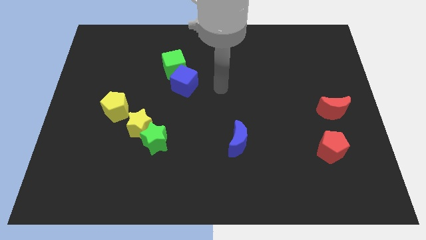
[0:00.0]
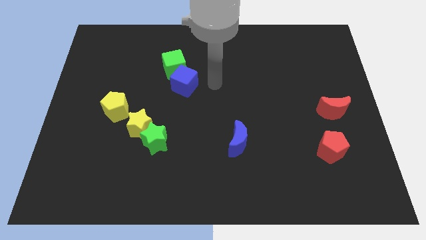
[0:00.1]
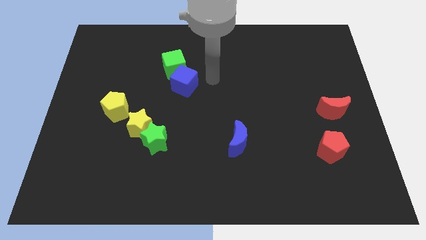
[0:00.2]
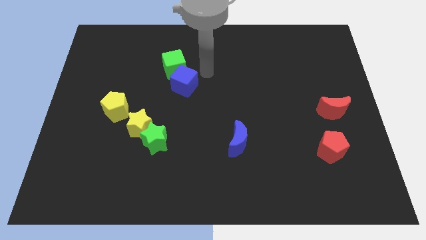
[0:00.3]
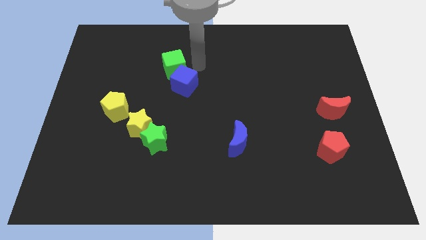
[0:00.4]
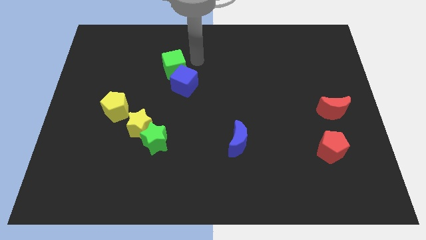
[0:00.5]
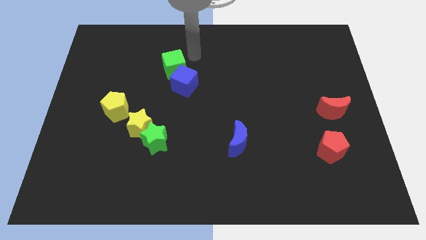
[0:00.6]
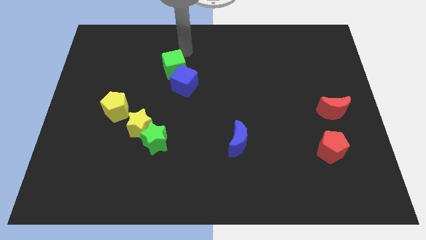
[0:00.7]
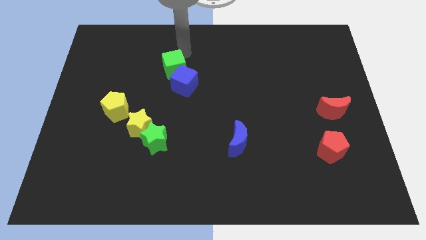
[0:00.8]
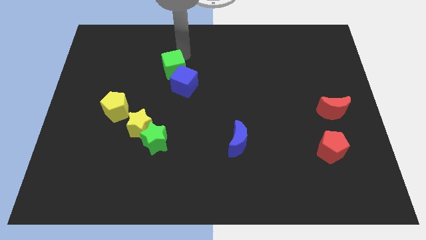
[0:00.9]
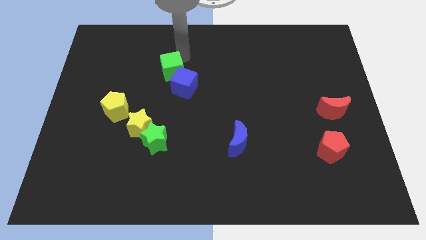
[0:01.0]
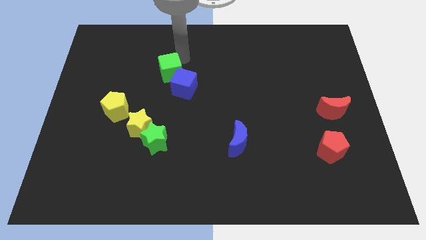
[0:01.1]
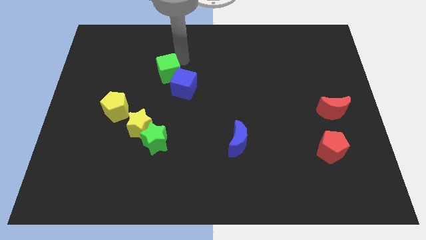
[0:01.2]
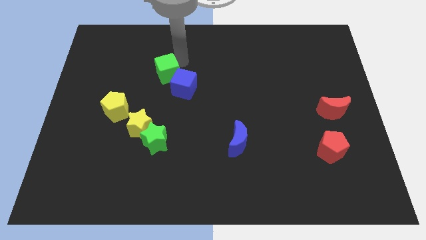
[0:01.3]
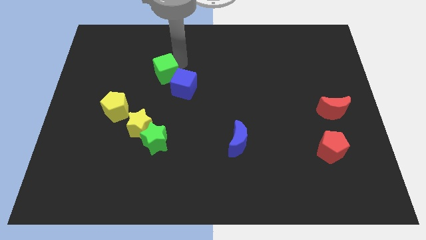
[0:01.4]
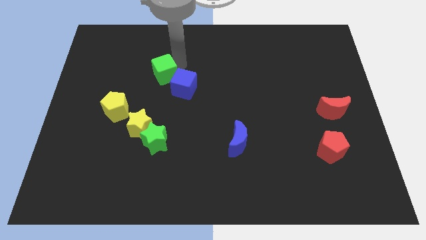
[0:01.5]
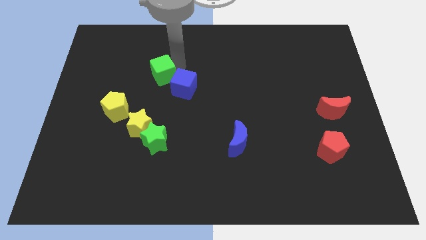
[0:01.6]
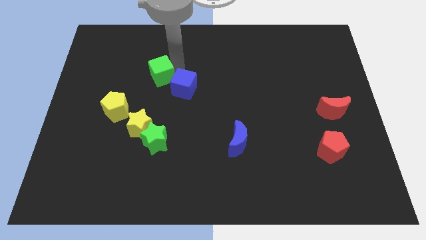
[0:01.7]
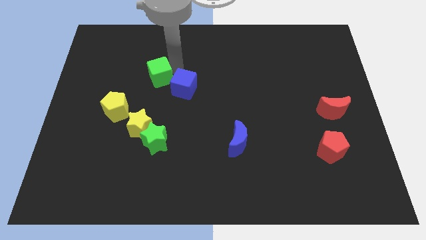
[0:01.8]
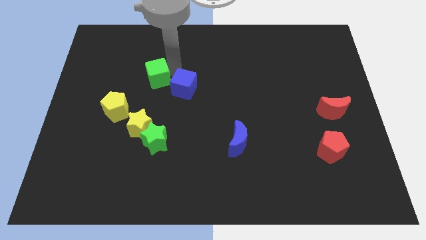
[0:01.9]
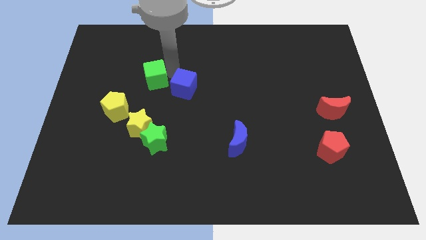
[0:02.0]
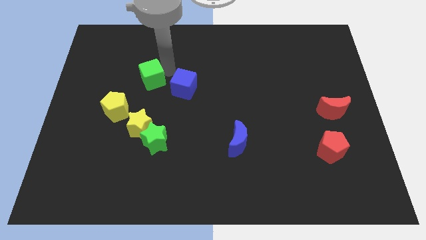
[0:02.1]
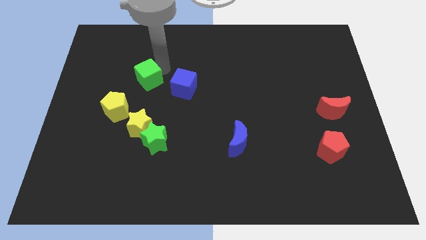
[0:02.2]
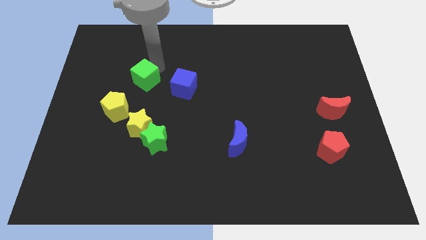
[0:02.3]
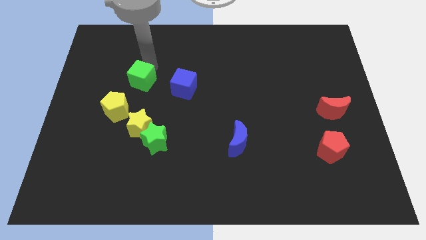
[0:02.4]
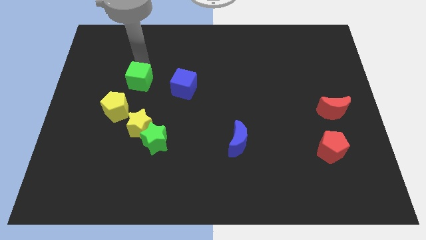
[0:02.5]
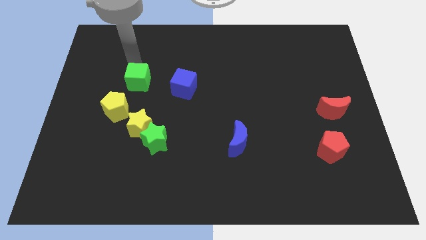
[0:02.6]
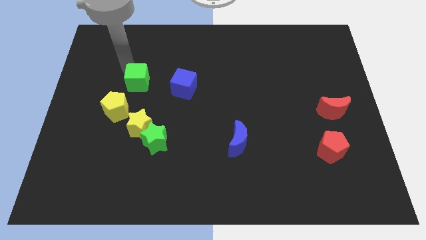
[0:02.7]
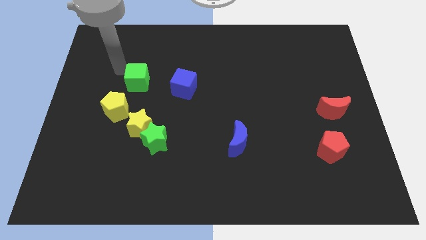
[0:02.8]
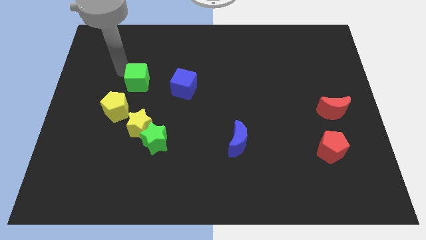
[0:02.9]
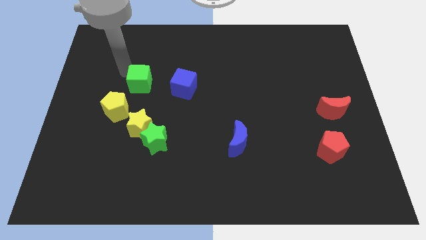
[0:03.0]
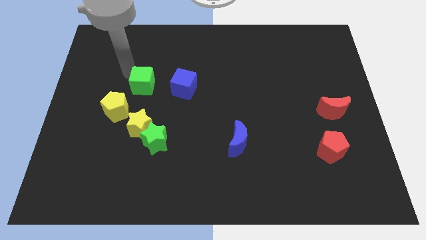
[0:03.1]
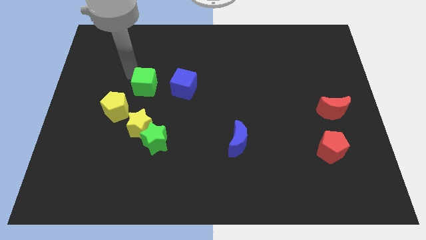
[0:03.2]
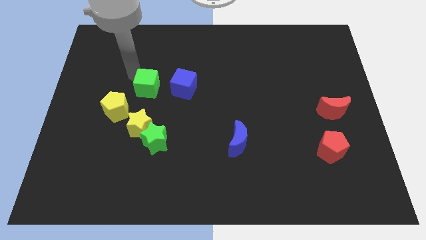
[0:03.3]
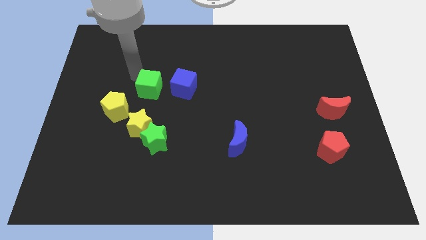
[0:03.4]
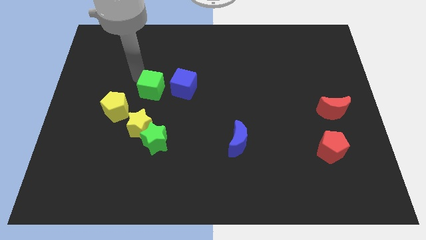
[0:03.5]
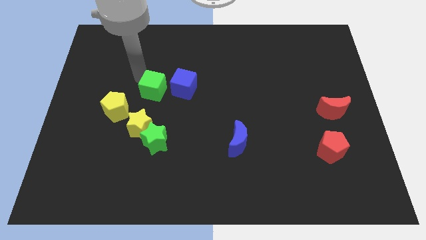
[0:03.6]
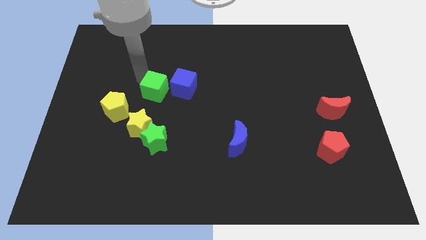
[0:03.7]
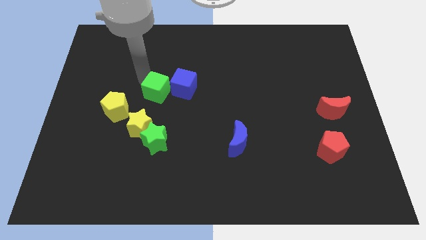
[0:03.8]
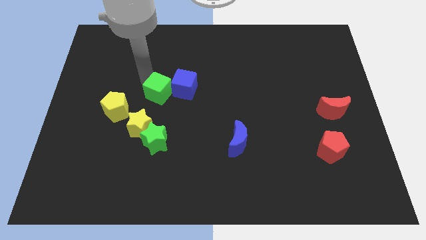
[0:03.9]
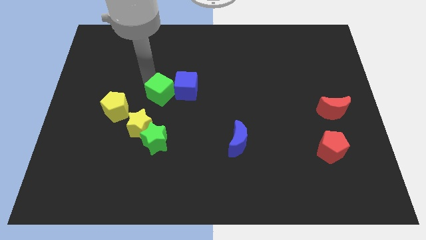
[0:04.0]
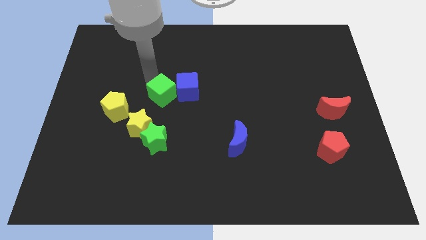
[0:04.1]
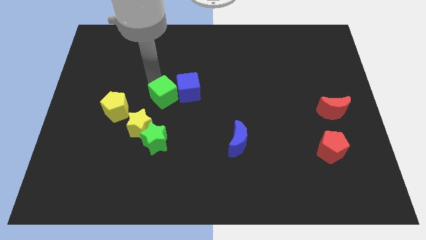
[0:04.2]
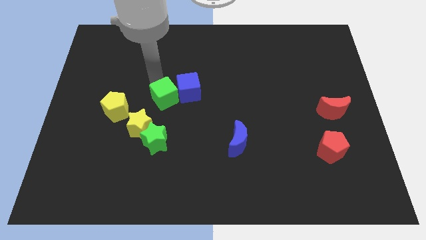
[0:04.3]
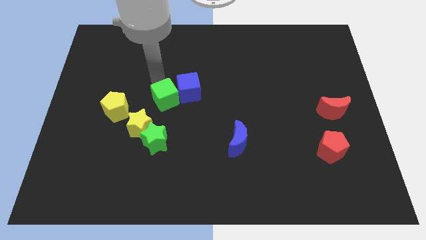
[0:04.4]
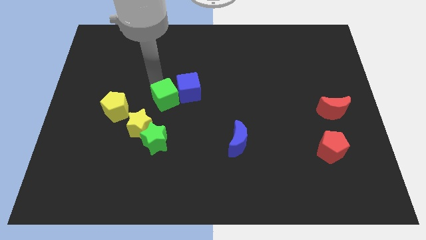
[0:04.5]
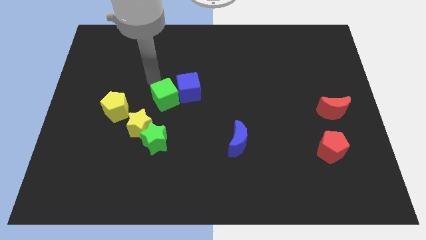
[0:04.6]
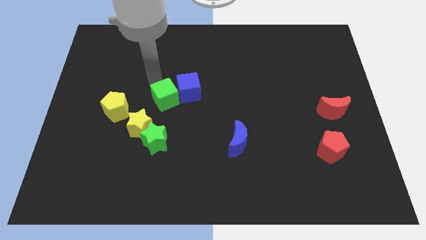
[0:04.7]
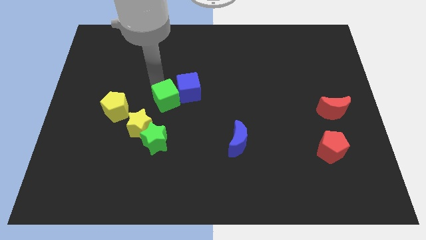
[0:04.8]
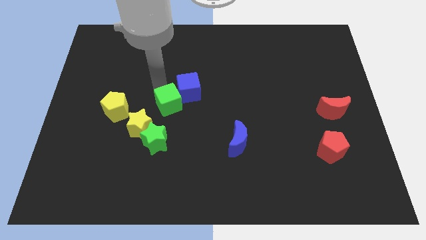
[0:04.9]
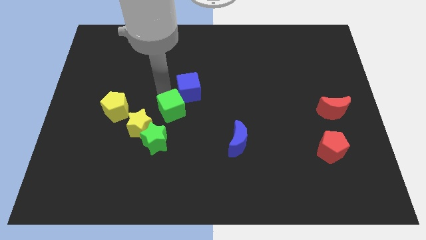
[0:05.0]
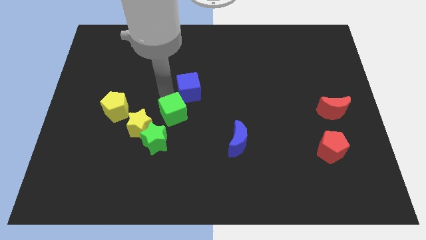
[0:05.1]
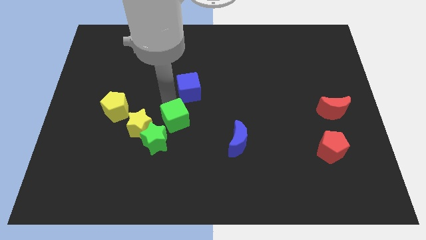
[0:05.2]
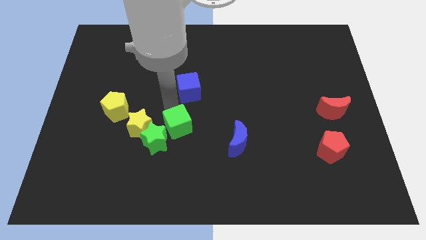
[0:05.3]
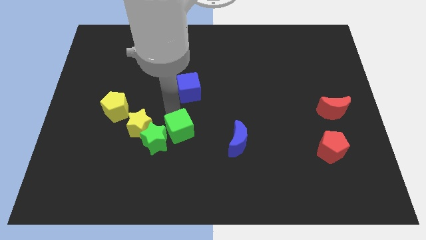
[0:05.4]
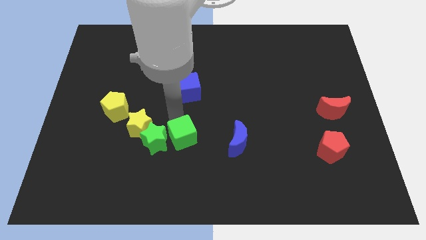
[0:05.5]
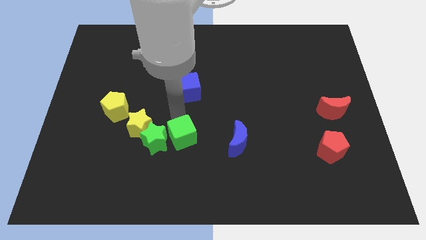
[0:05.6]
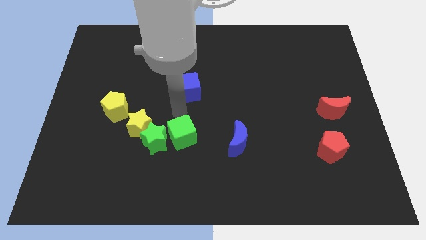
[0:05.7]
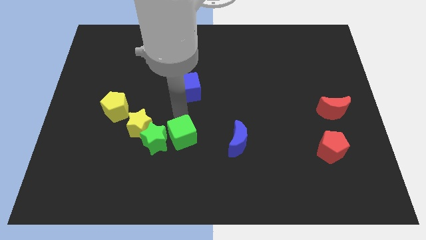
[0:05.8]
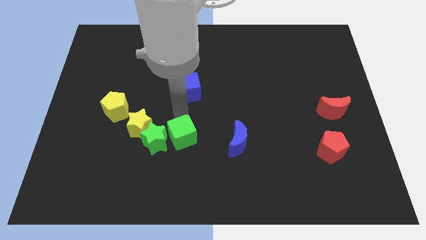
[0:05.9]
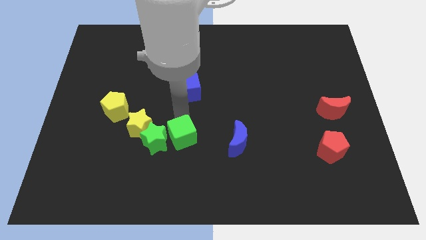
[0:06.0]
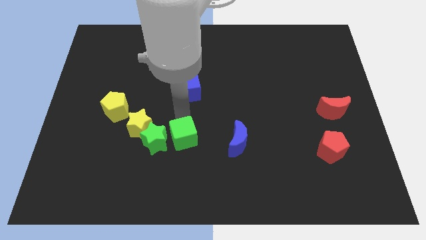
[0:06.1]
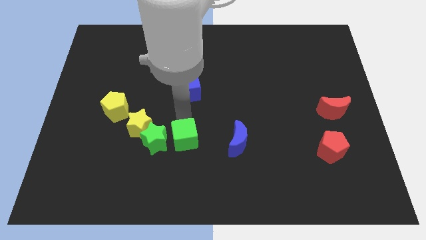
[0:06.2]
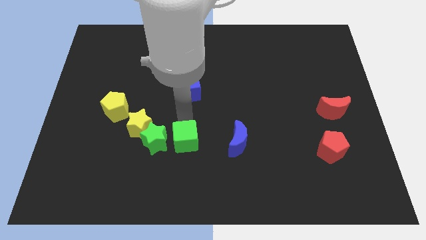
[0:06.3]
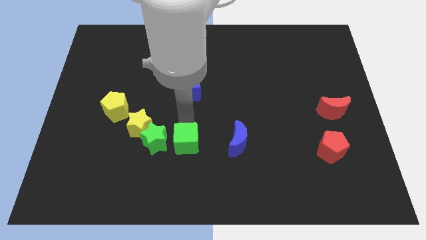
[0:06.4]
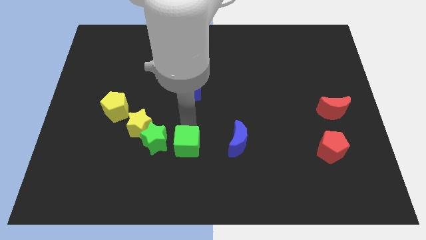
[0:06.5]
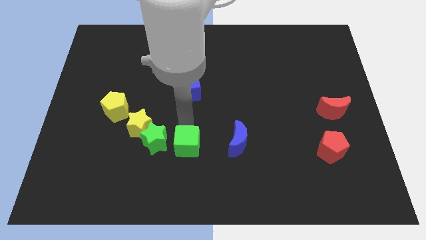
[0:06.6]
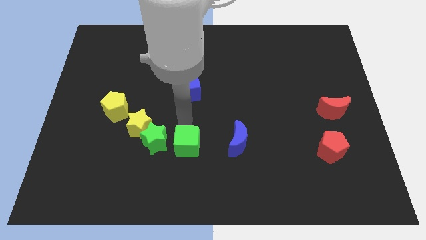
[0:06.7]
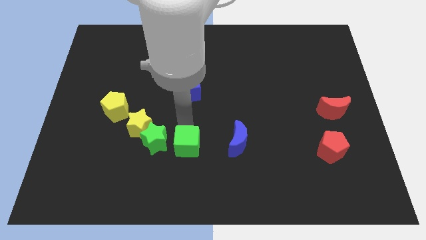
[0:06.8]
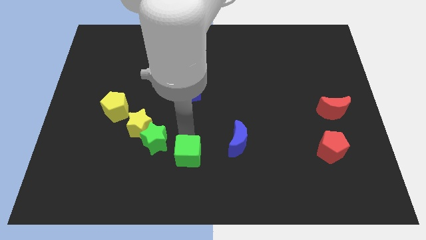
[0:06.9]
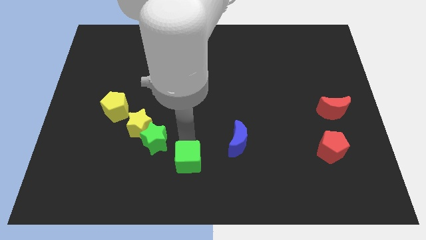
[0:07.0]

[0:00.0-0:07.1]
put the green cube to the bottom side
